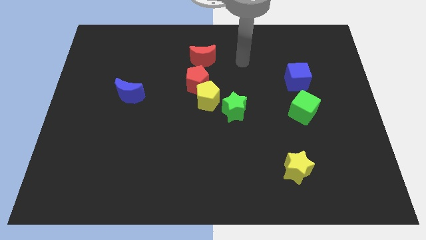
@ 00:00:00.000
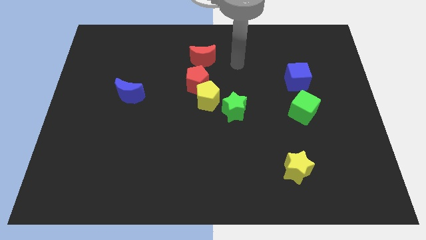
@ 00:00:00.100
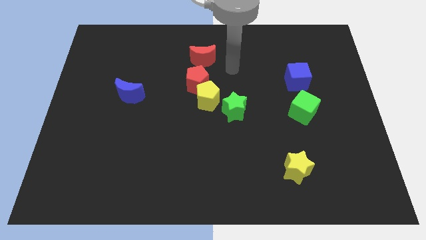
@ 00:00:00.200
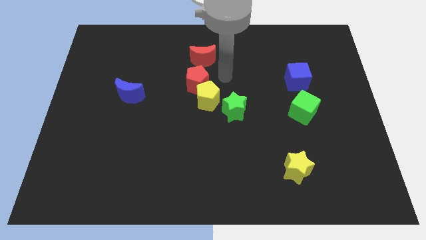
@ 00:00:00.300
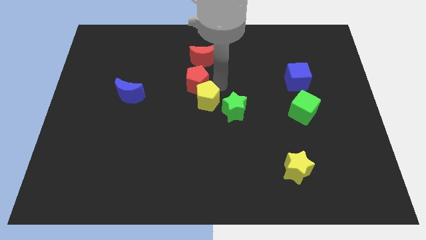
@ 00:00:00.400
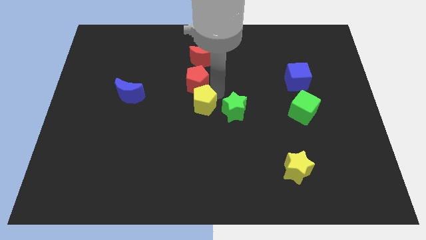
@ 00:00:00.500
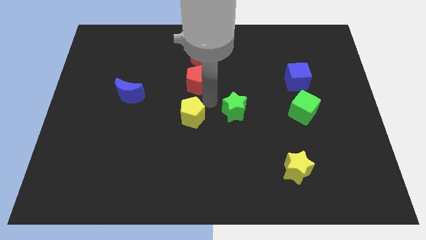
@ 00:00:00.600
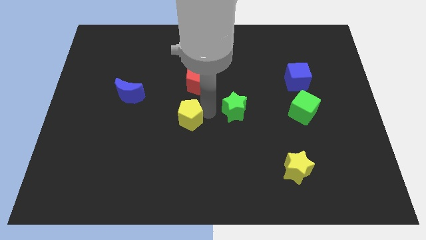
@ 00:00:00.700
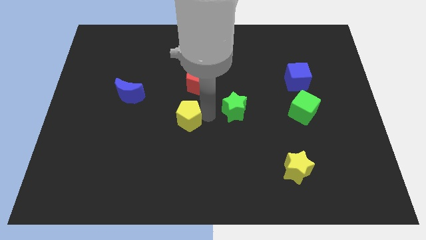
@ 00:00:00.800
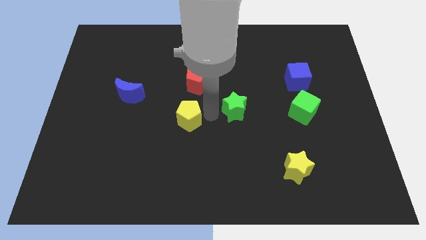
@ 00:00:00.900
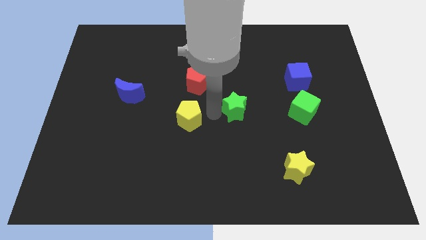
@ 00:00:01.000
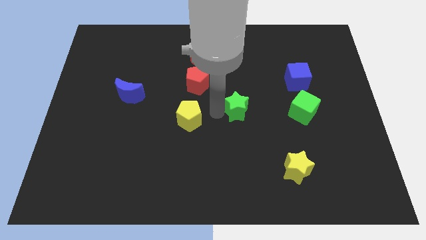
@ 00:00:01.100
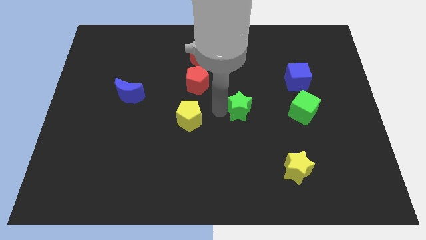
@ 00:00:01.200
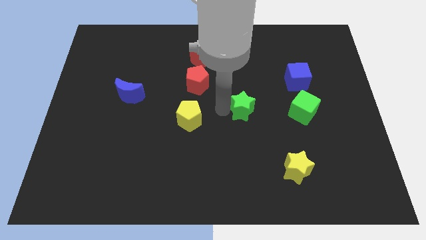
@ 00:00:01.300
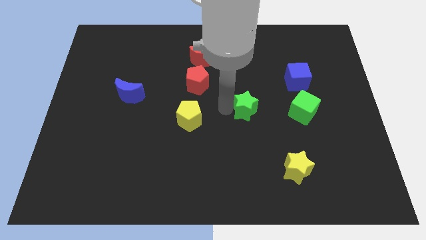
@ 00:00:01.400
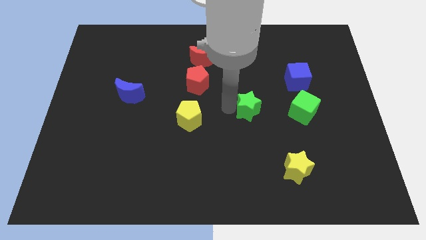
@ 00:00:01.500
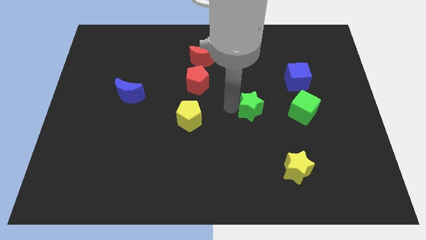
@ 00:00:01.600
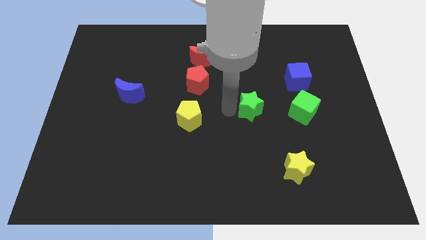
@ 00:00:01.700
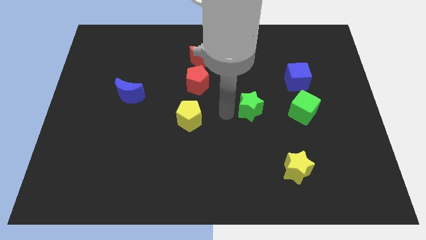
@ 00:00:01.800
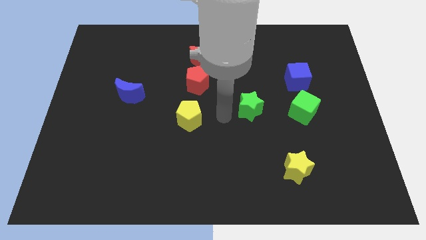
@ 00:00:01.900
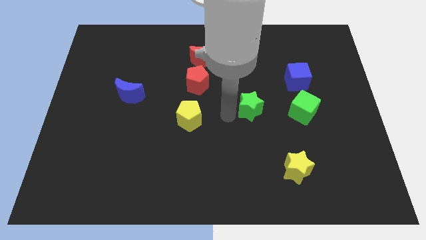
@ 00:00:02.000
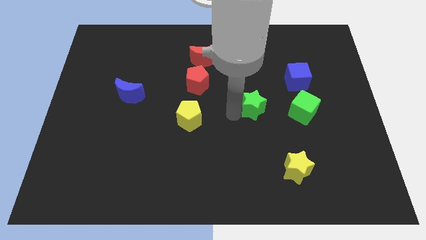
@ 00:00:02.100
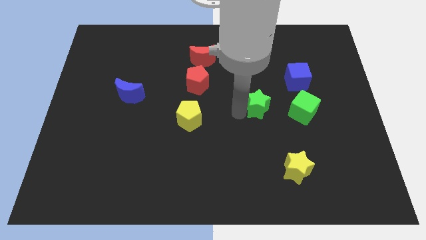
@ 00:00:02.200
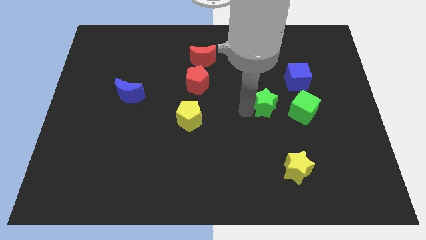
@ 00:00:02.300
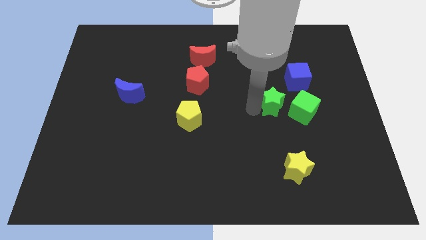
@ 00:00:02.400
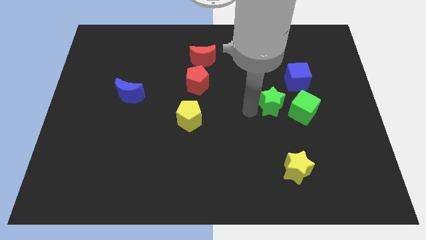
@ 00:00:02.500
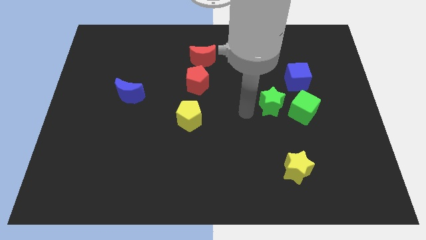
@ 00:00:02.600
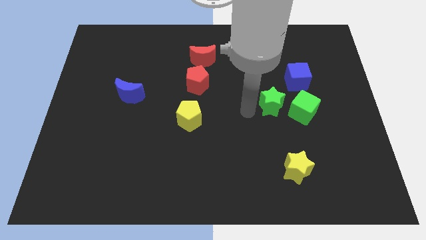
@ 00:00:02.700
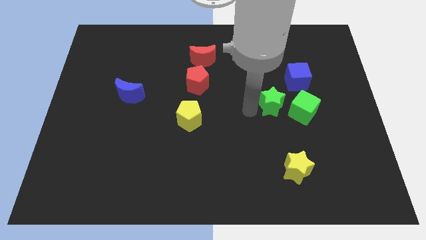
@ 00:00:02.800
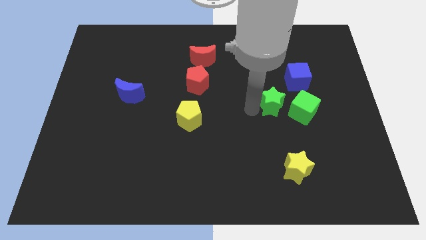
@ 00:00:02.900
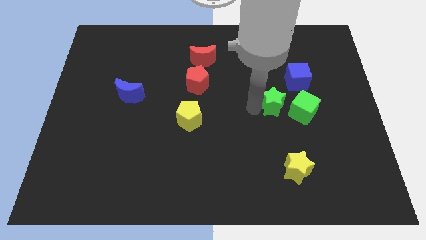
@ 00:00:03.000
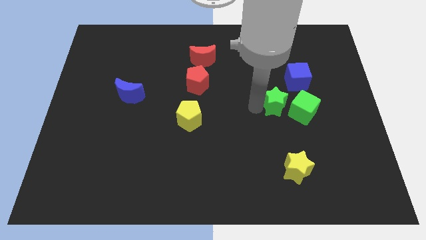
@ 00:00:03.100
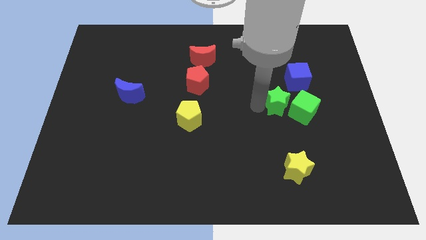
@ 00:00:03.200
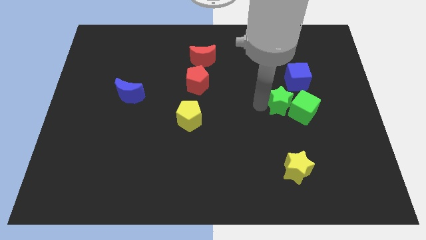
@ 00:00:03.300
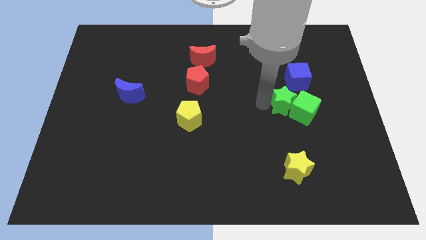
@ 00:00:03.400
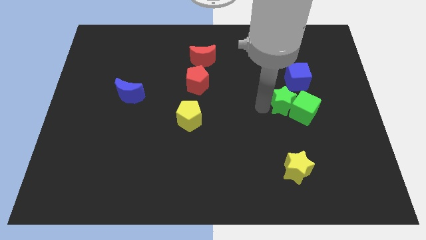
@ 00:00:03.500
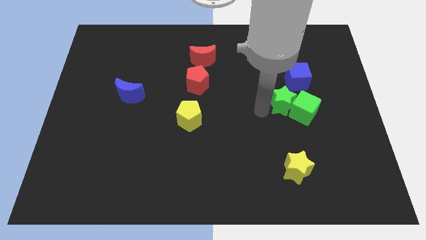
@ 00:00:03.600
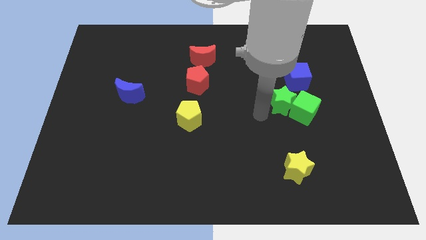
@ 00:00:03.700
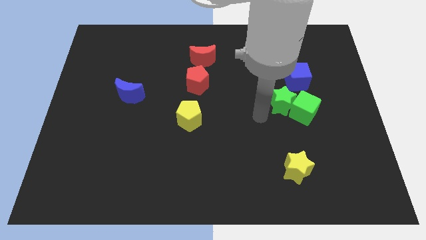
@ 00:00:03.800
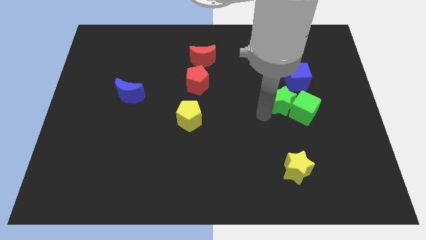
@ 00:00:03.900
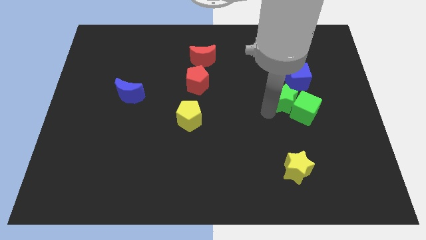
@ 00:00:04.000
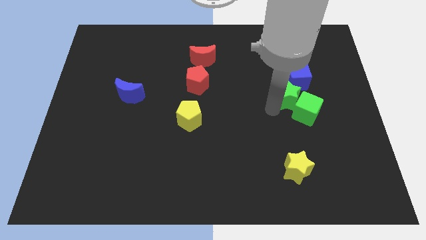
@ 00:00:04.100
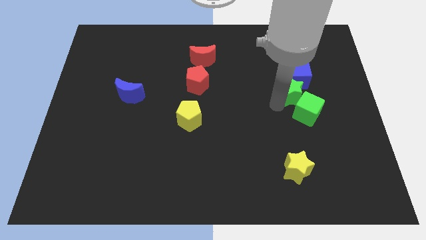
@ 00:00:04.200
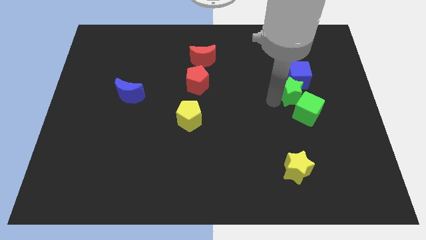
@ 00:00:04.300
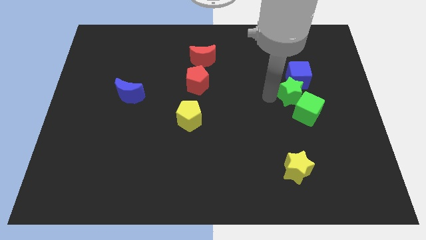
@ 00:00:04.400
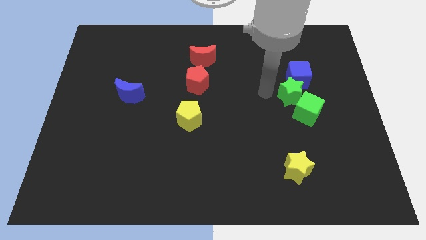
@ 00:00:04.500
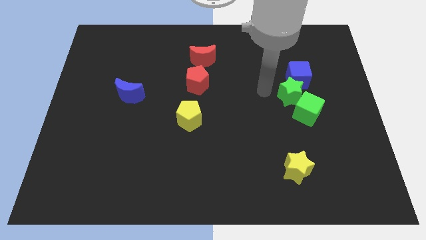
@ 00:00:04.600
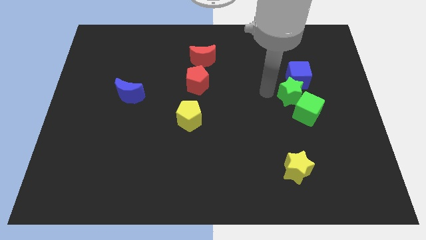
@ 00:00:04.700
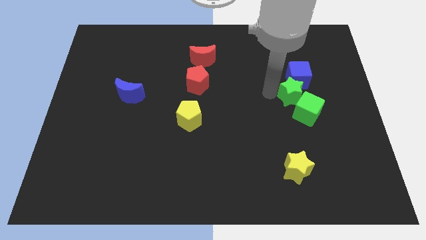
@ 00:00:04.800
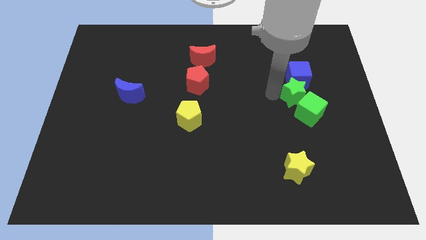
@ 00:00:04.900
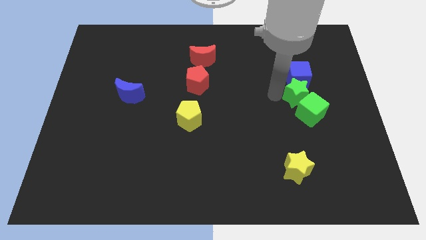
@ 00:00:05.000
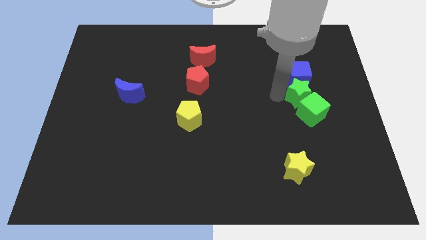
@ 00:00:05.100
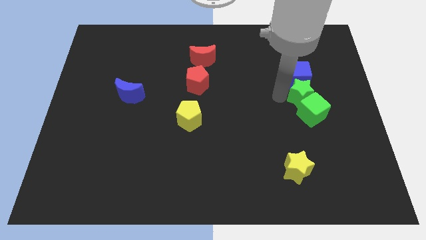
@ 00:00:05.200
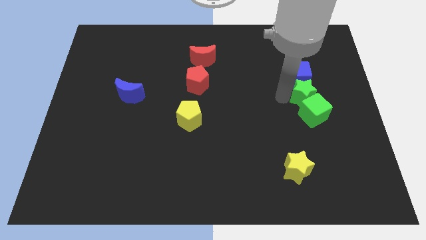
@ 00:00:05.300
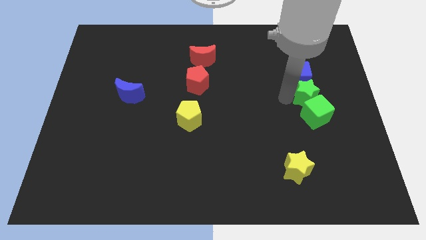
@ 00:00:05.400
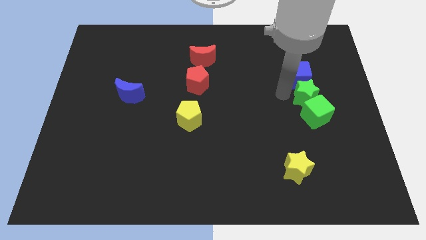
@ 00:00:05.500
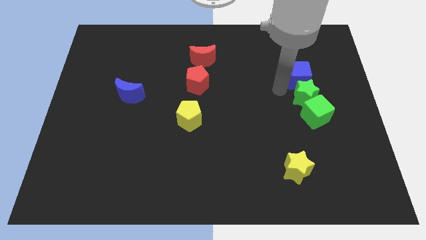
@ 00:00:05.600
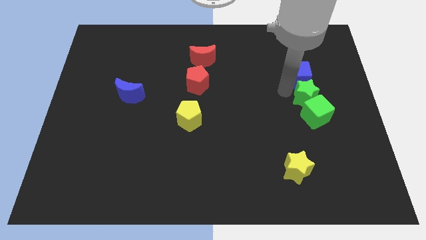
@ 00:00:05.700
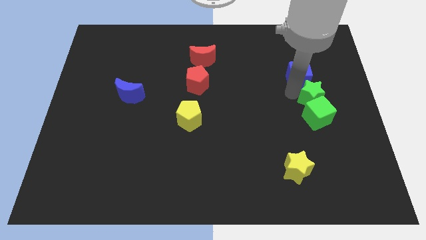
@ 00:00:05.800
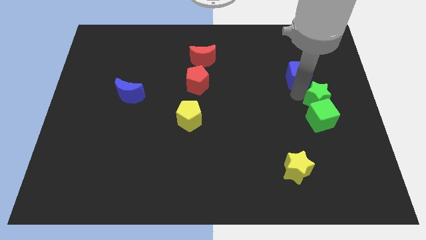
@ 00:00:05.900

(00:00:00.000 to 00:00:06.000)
move the green star to the right side

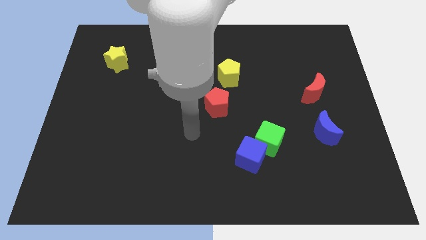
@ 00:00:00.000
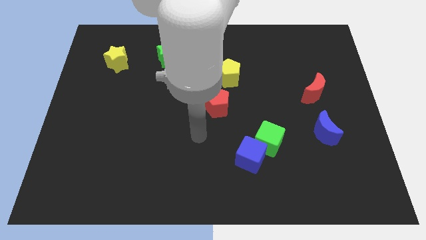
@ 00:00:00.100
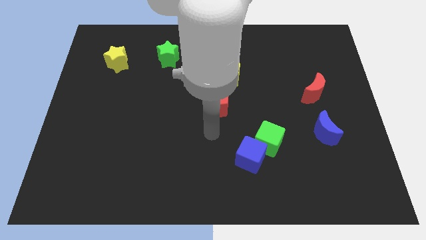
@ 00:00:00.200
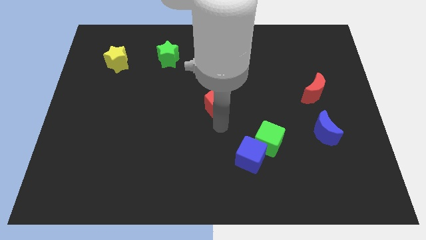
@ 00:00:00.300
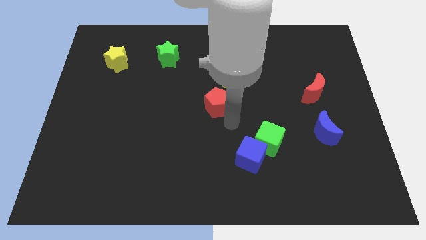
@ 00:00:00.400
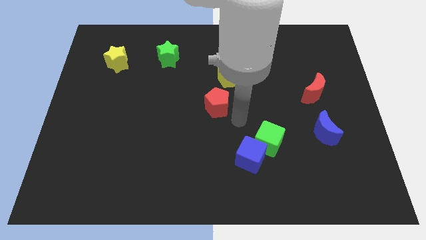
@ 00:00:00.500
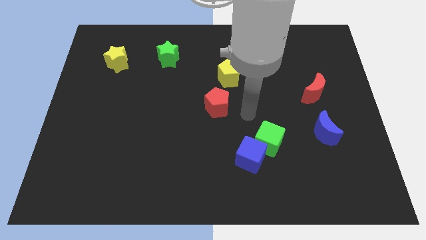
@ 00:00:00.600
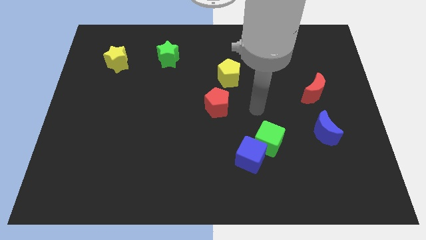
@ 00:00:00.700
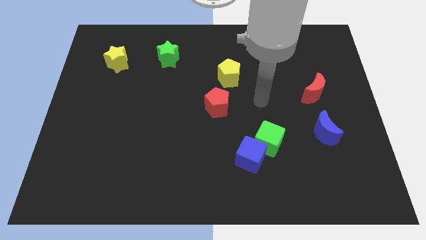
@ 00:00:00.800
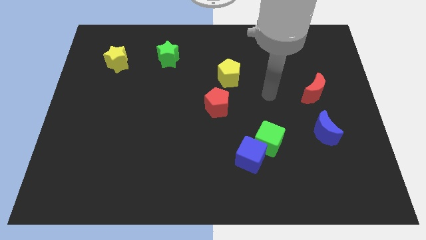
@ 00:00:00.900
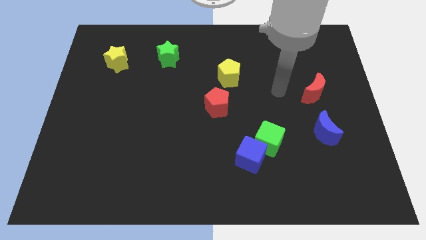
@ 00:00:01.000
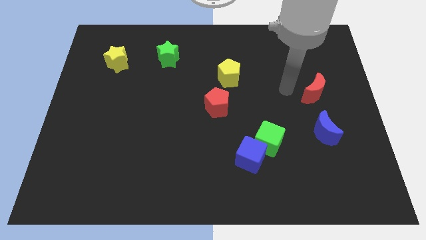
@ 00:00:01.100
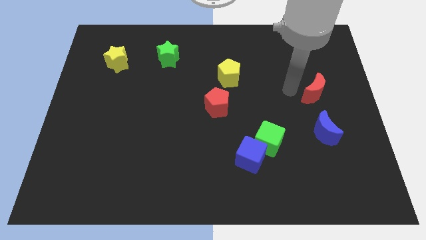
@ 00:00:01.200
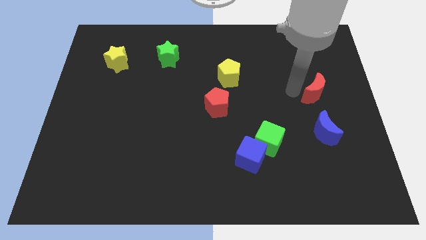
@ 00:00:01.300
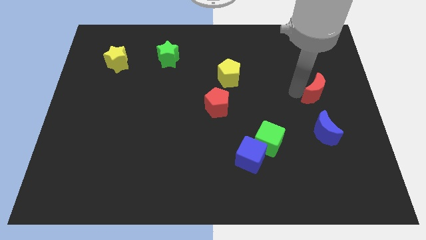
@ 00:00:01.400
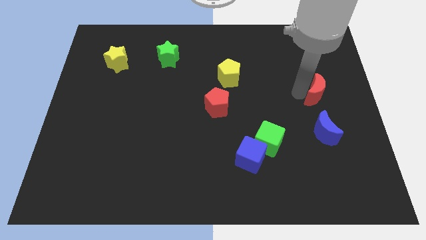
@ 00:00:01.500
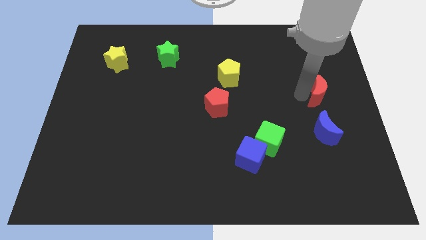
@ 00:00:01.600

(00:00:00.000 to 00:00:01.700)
push the red moon to the right side of the board

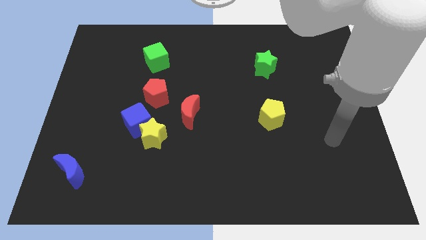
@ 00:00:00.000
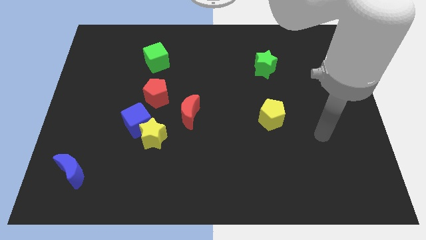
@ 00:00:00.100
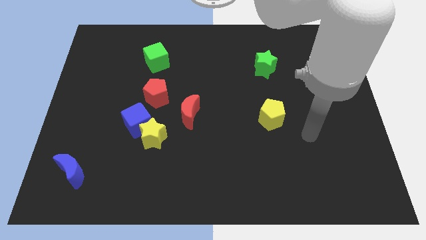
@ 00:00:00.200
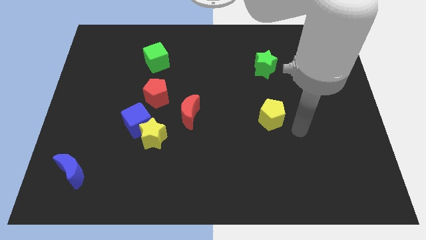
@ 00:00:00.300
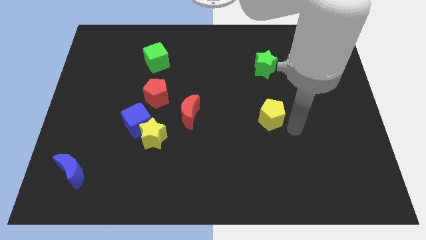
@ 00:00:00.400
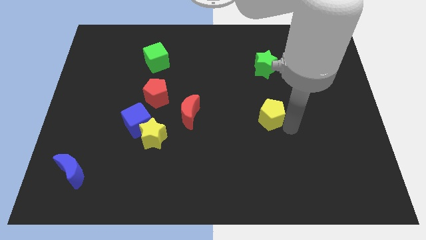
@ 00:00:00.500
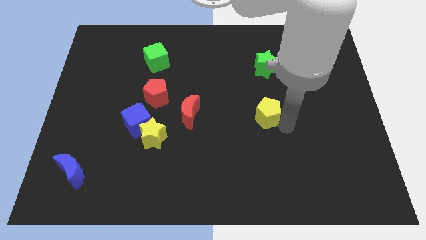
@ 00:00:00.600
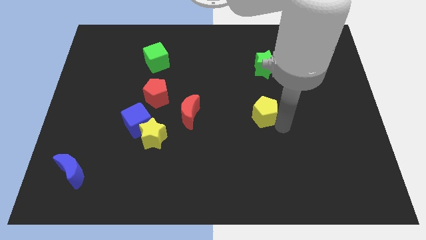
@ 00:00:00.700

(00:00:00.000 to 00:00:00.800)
push the yellow pentagon to the middle
